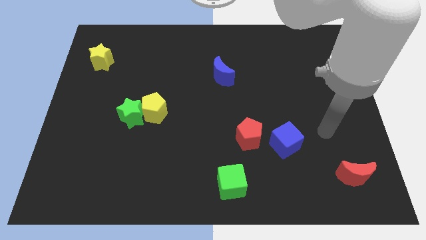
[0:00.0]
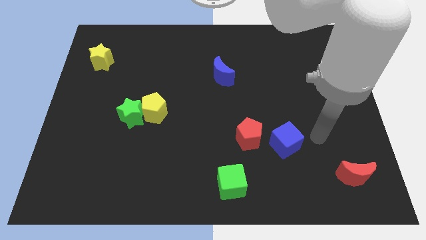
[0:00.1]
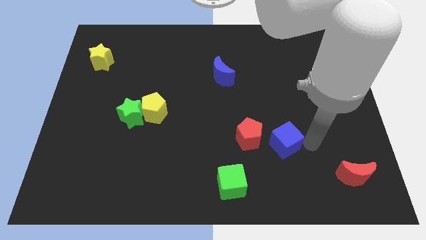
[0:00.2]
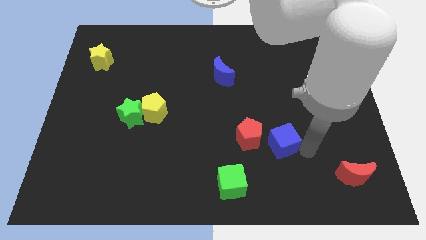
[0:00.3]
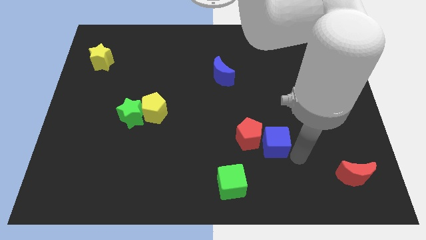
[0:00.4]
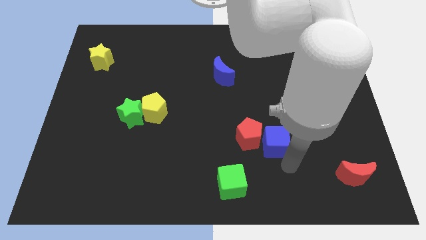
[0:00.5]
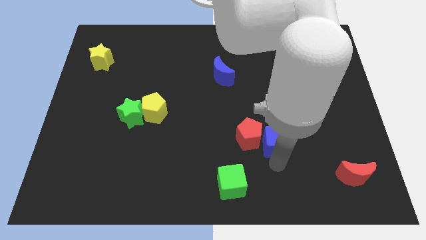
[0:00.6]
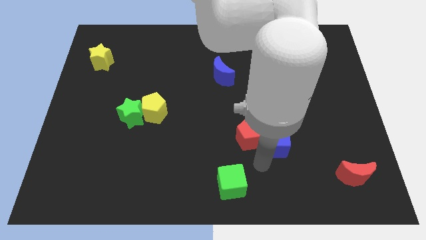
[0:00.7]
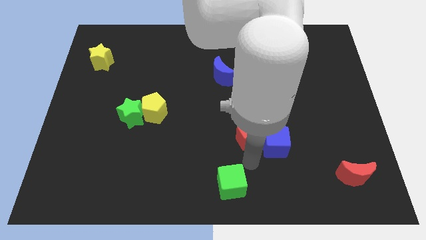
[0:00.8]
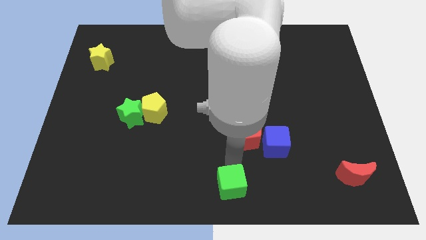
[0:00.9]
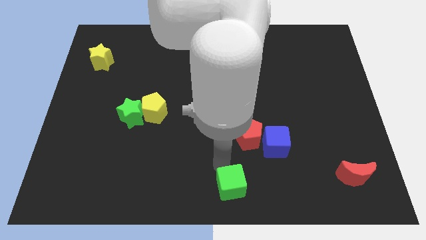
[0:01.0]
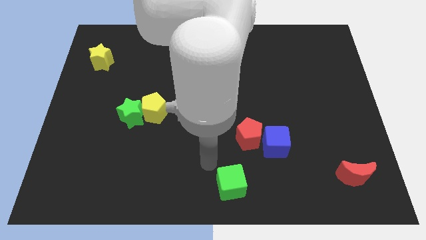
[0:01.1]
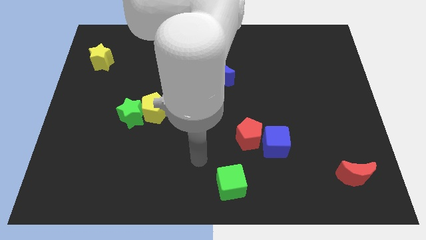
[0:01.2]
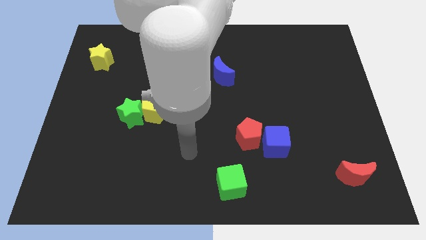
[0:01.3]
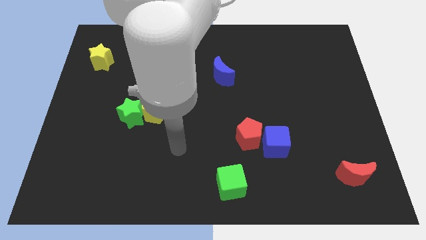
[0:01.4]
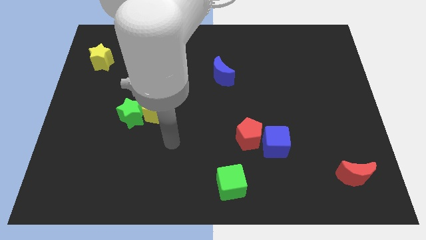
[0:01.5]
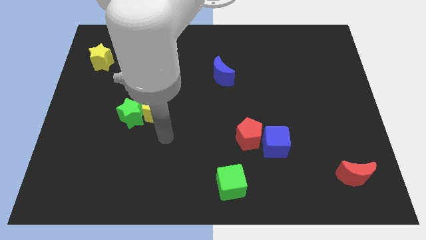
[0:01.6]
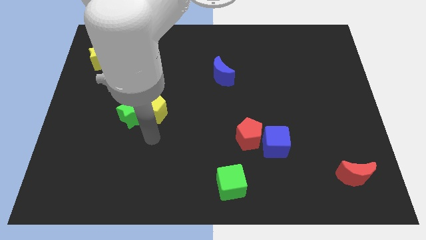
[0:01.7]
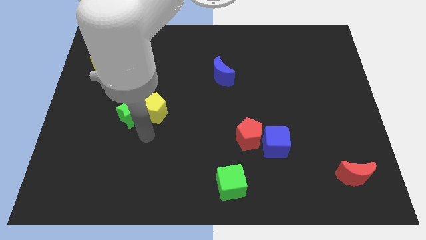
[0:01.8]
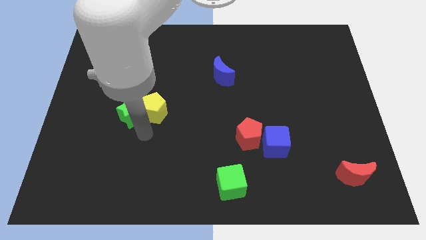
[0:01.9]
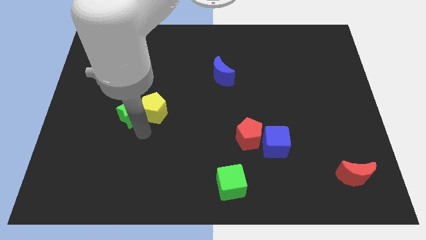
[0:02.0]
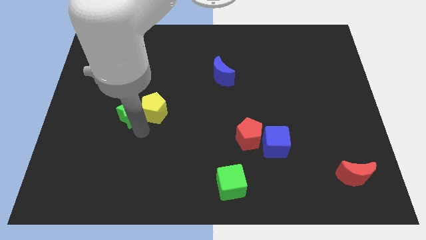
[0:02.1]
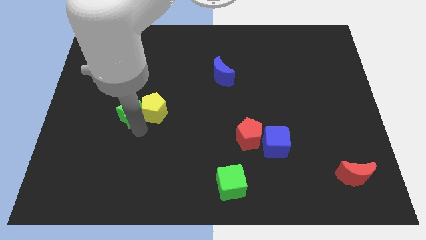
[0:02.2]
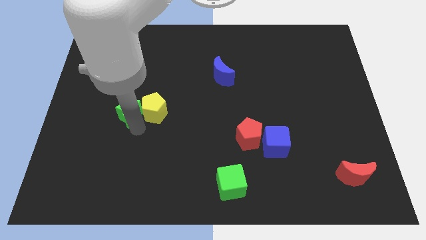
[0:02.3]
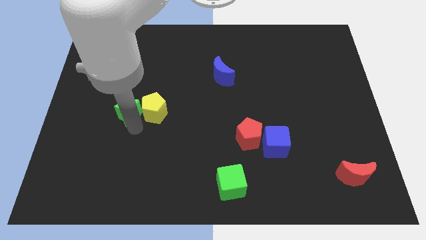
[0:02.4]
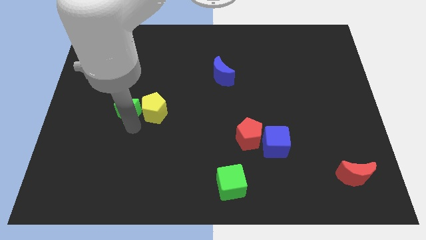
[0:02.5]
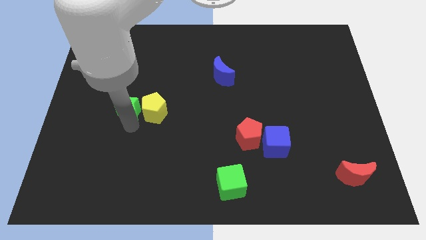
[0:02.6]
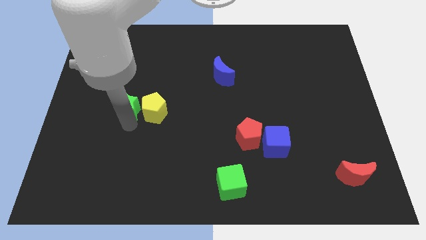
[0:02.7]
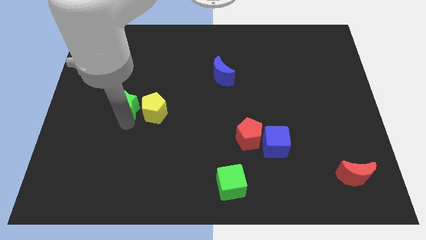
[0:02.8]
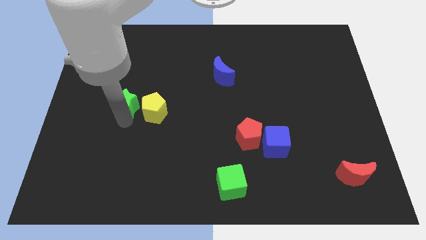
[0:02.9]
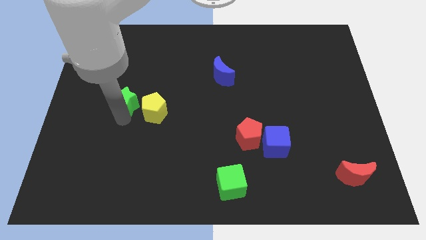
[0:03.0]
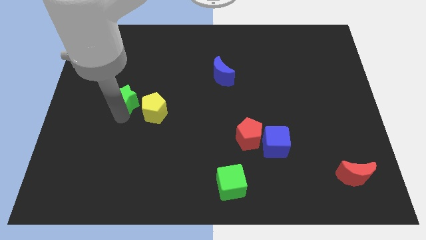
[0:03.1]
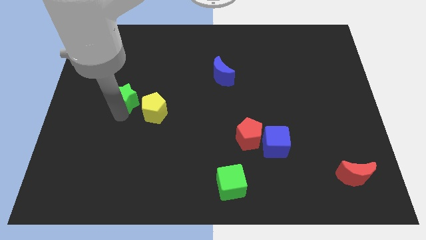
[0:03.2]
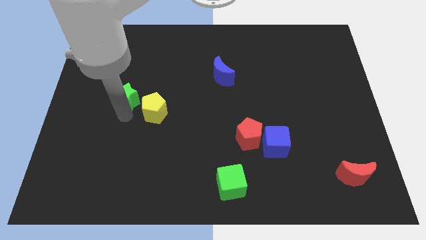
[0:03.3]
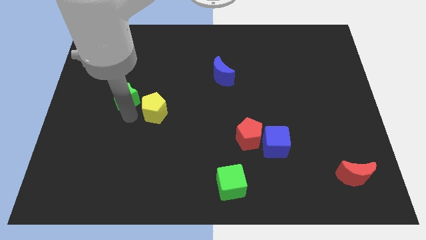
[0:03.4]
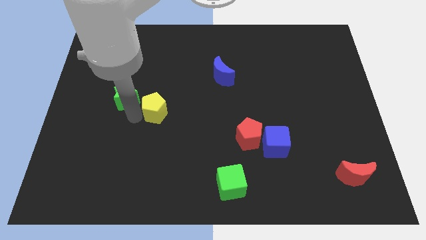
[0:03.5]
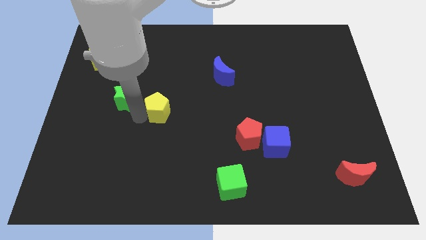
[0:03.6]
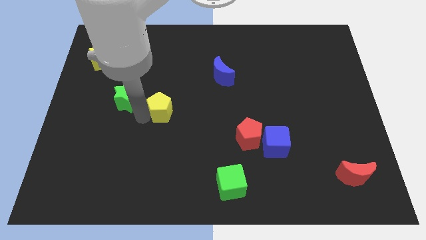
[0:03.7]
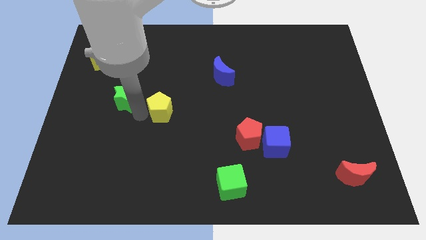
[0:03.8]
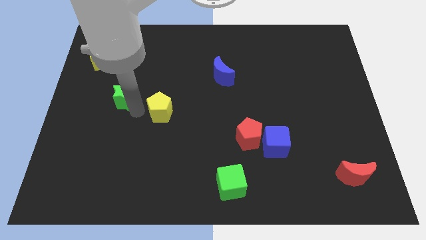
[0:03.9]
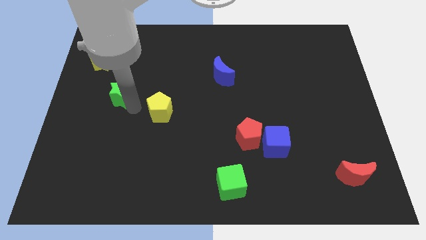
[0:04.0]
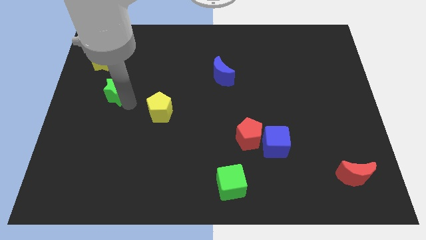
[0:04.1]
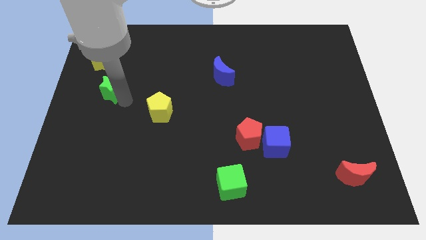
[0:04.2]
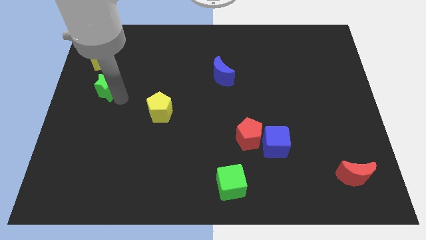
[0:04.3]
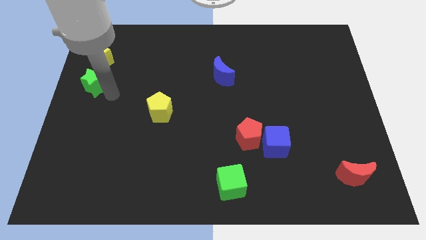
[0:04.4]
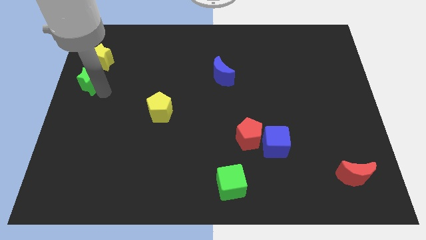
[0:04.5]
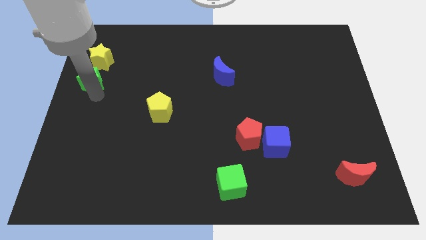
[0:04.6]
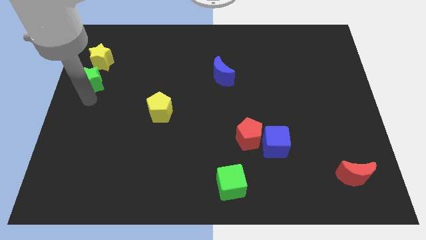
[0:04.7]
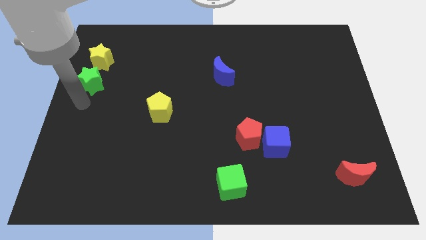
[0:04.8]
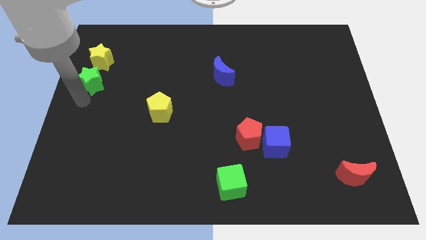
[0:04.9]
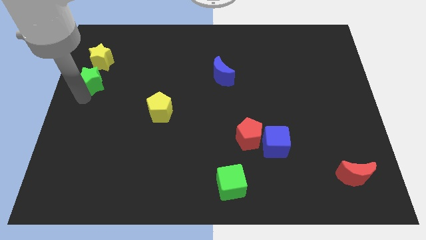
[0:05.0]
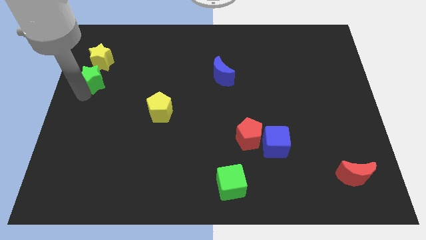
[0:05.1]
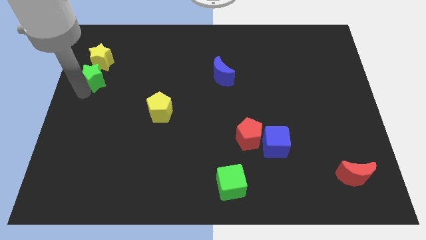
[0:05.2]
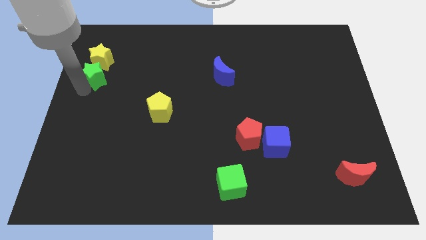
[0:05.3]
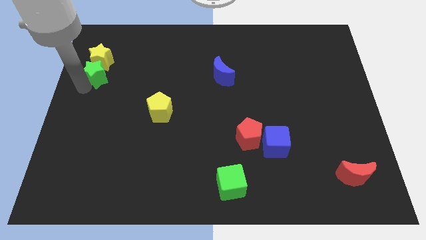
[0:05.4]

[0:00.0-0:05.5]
push the green star close to the yellow star

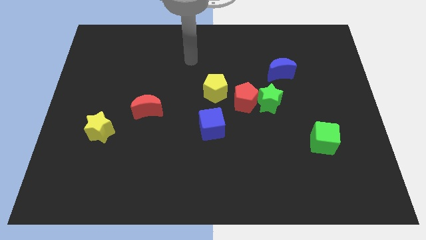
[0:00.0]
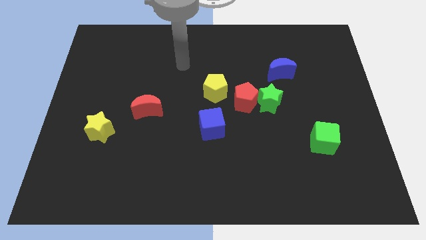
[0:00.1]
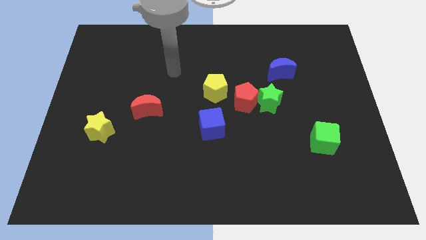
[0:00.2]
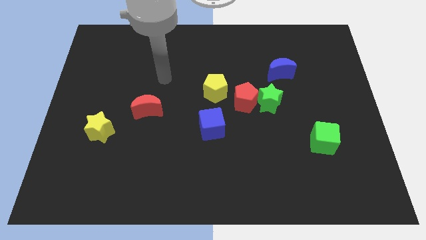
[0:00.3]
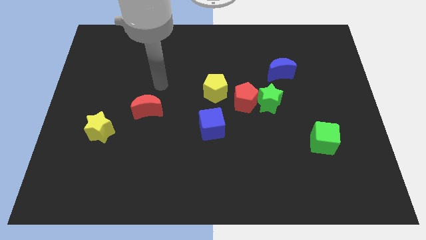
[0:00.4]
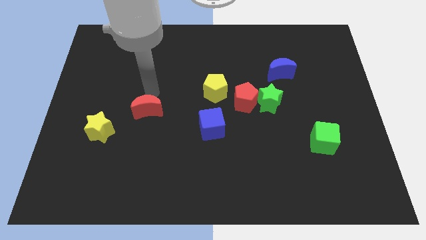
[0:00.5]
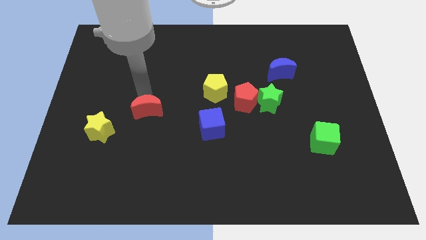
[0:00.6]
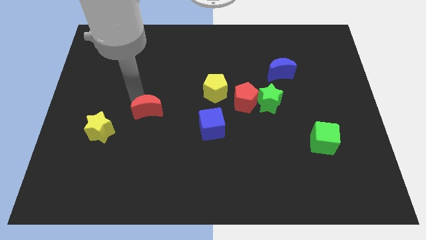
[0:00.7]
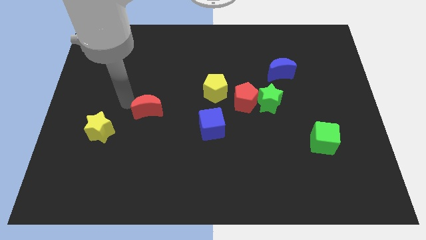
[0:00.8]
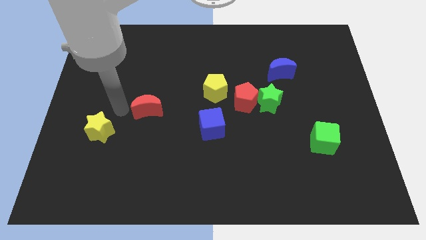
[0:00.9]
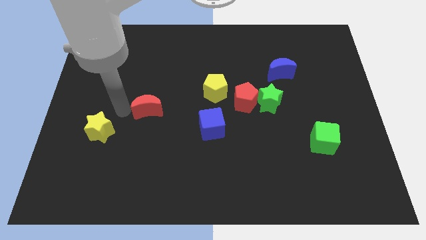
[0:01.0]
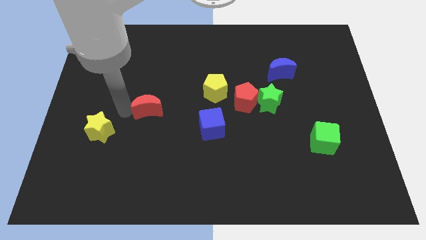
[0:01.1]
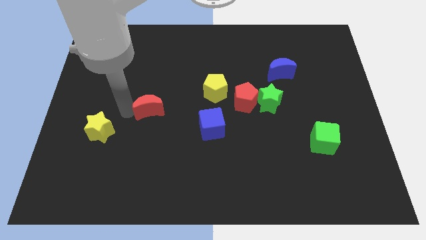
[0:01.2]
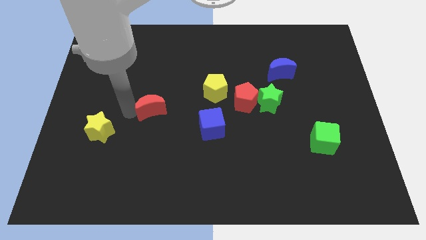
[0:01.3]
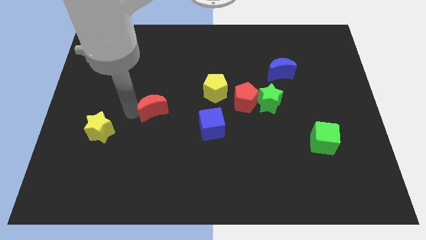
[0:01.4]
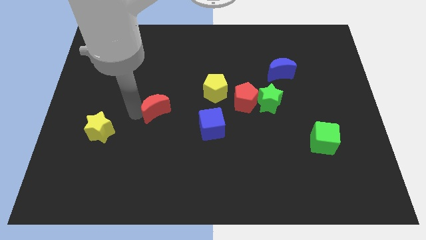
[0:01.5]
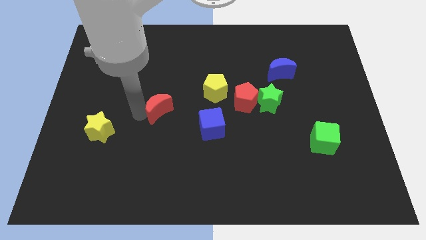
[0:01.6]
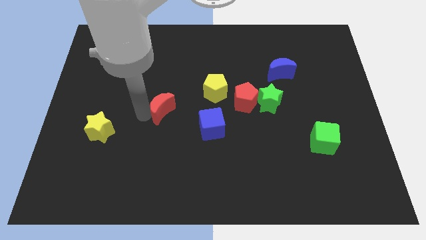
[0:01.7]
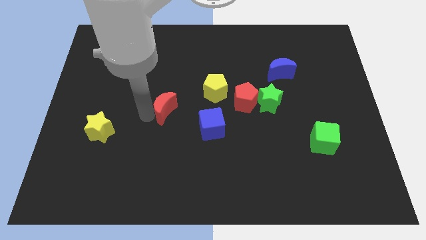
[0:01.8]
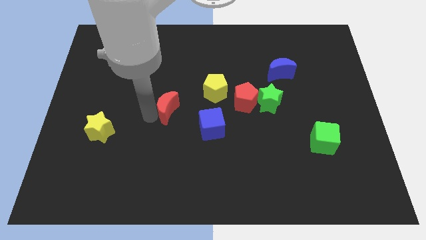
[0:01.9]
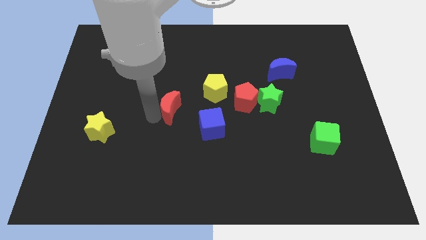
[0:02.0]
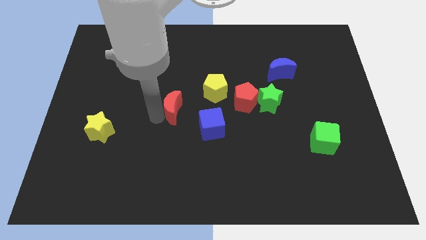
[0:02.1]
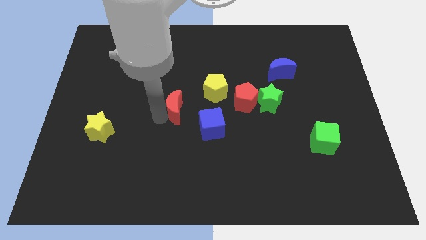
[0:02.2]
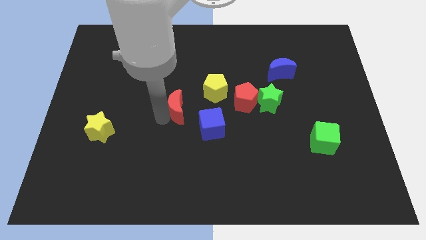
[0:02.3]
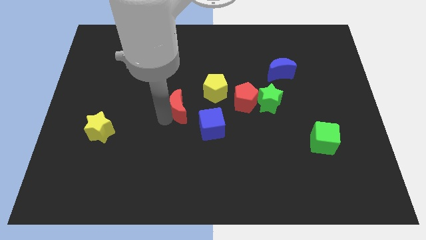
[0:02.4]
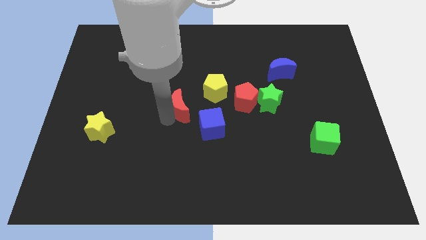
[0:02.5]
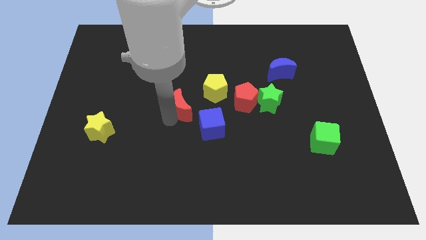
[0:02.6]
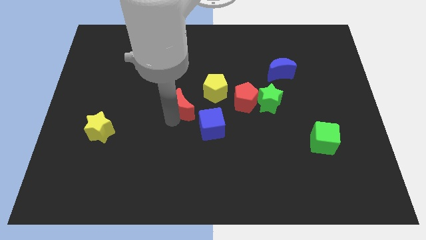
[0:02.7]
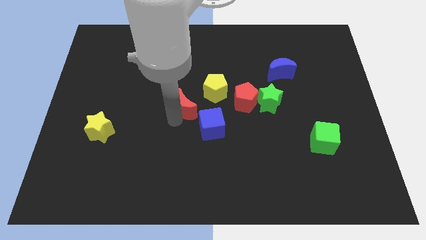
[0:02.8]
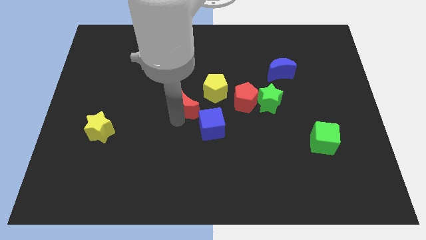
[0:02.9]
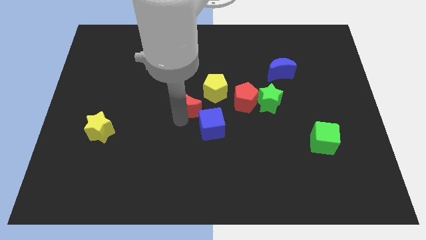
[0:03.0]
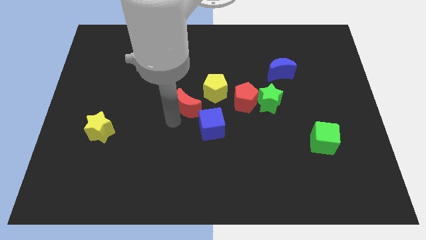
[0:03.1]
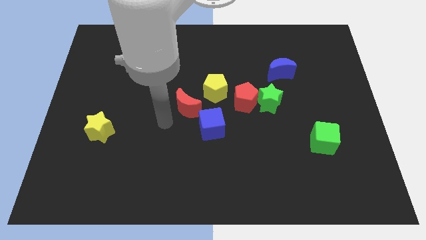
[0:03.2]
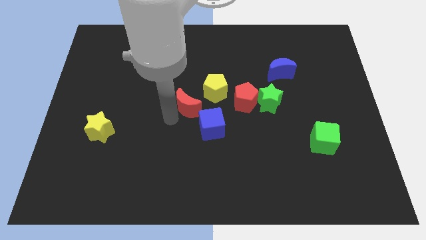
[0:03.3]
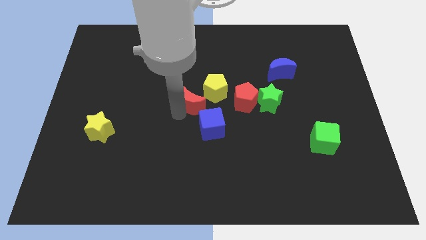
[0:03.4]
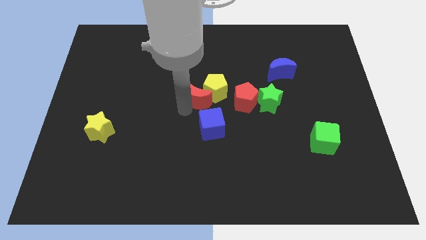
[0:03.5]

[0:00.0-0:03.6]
push the red moon to the yellow pentagon
